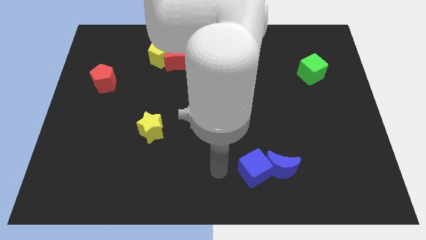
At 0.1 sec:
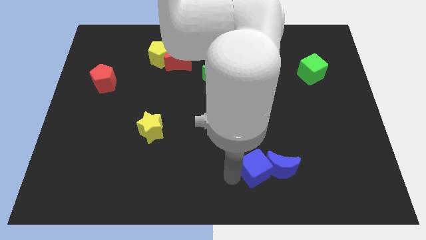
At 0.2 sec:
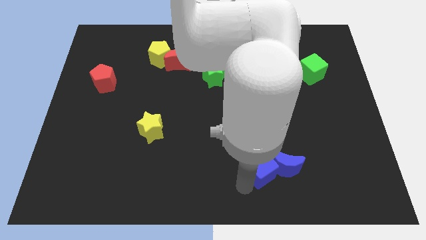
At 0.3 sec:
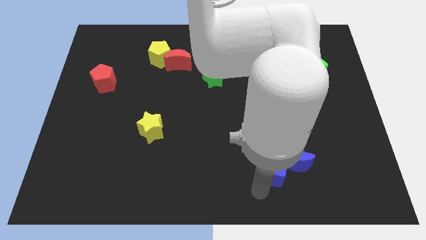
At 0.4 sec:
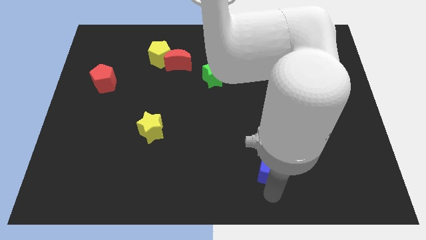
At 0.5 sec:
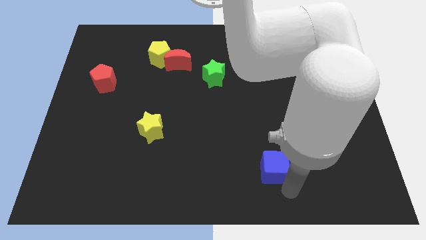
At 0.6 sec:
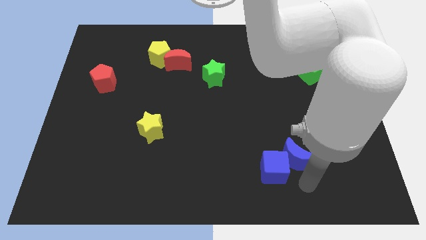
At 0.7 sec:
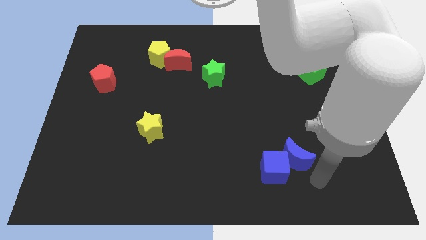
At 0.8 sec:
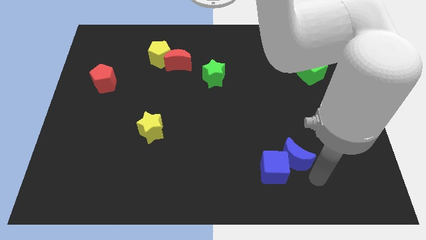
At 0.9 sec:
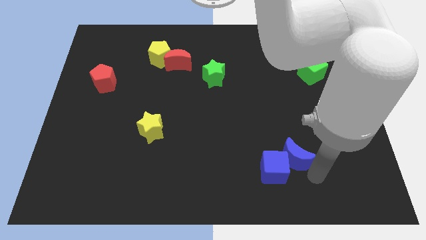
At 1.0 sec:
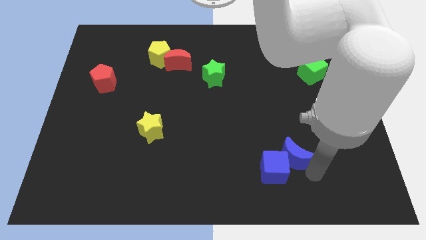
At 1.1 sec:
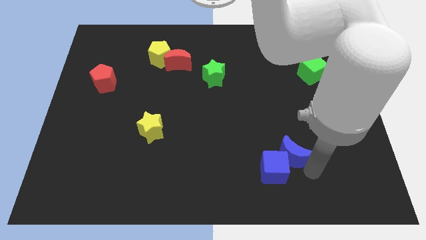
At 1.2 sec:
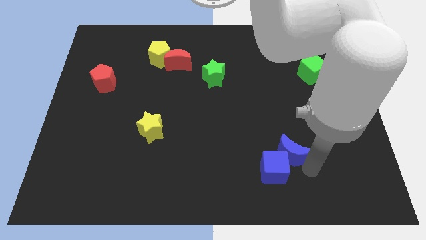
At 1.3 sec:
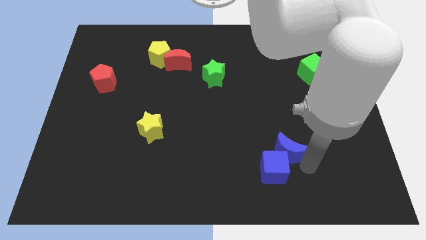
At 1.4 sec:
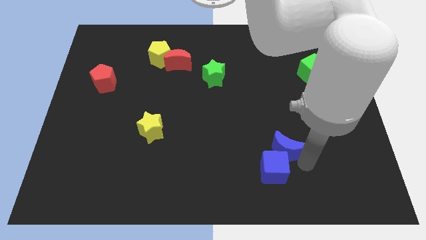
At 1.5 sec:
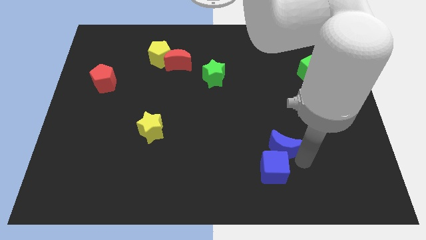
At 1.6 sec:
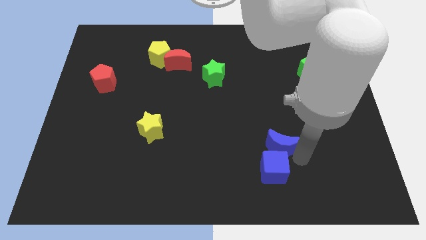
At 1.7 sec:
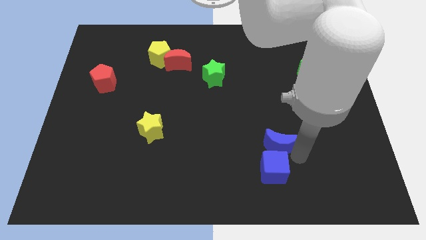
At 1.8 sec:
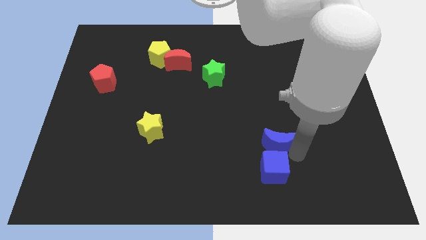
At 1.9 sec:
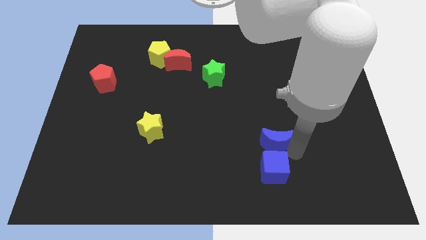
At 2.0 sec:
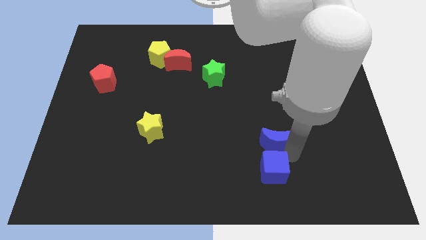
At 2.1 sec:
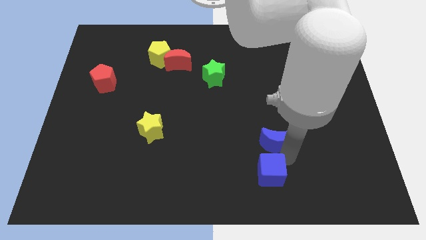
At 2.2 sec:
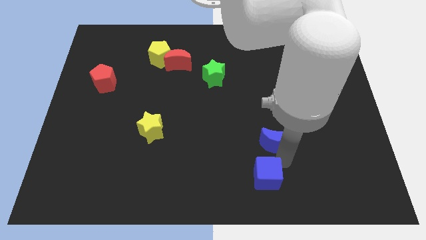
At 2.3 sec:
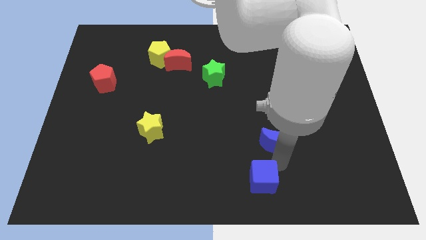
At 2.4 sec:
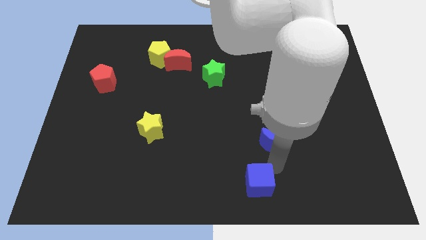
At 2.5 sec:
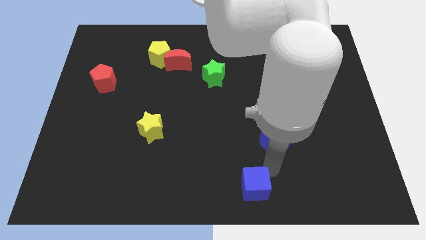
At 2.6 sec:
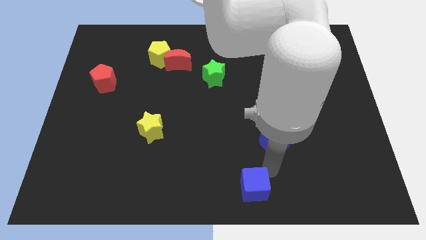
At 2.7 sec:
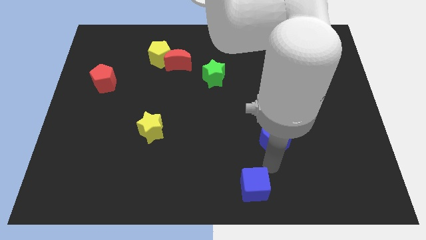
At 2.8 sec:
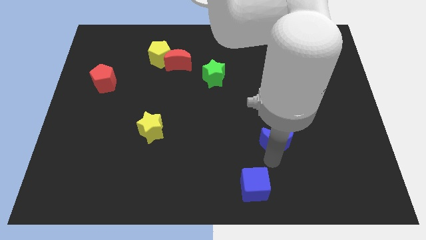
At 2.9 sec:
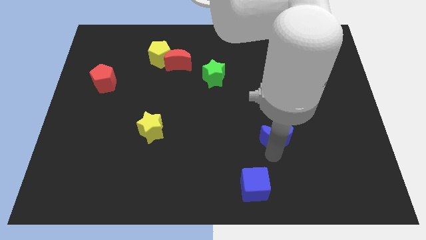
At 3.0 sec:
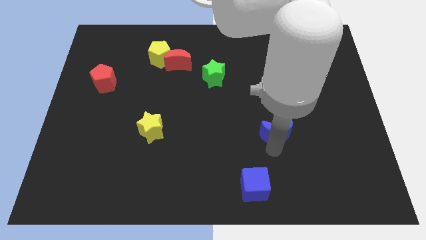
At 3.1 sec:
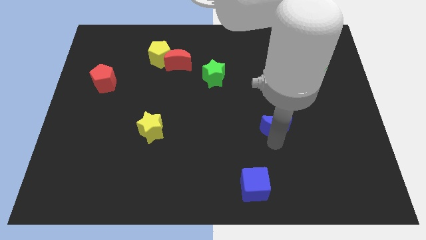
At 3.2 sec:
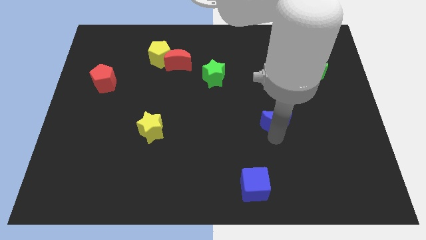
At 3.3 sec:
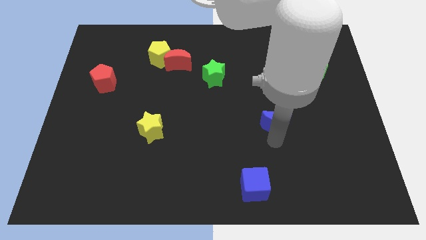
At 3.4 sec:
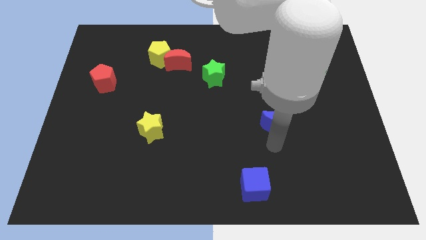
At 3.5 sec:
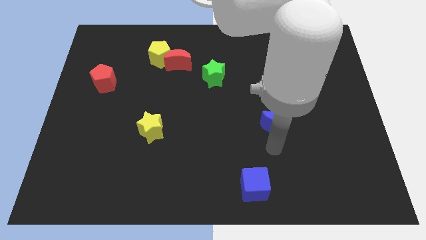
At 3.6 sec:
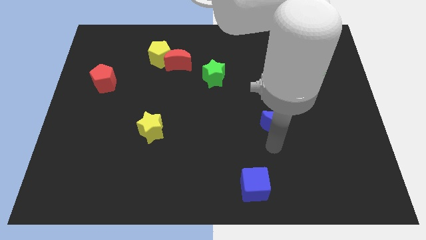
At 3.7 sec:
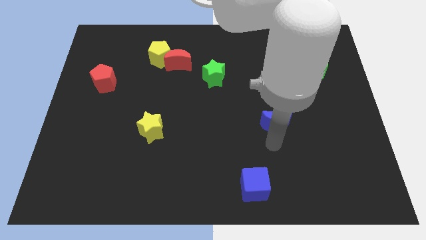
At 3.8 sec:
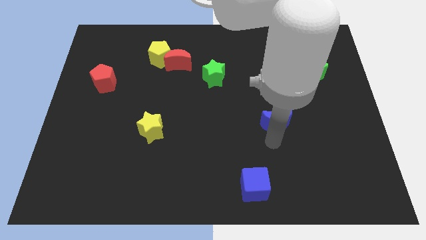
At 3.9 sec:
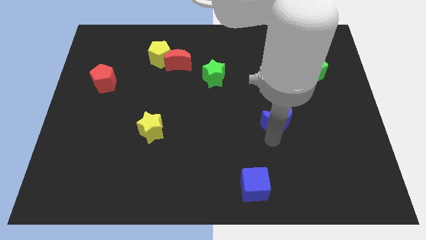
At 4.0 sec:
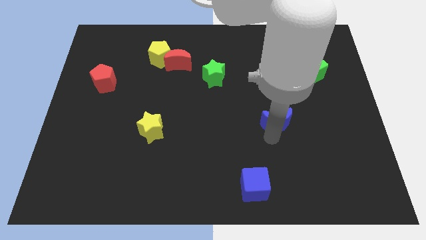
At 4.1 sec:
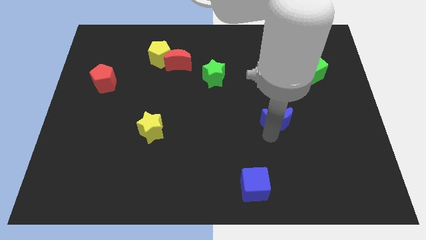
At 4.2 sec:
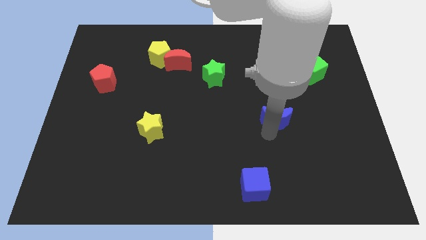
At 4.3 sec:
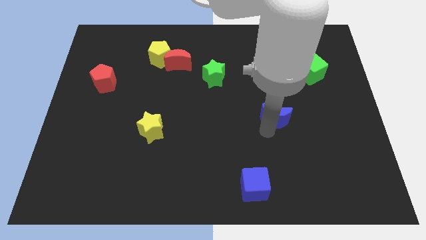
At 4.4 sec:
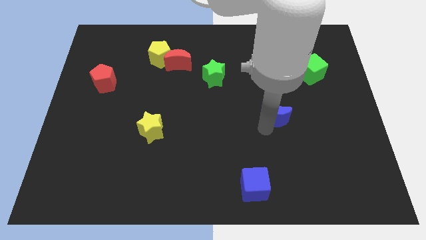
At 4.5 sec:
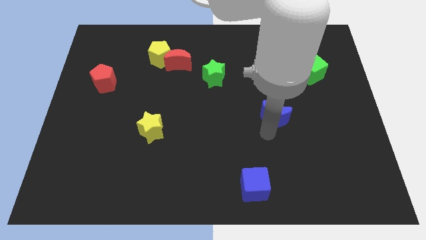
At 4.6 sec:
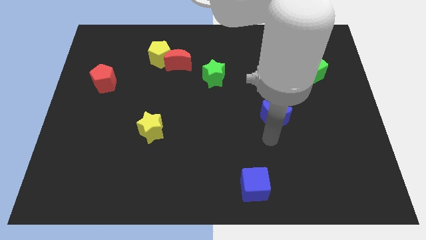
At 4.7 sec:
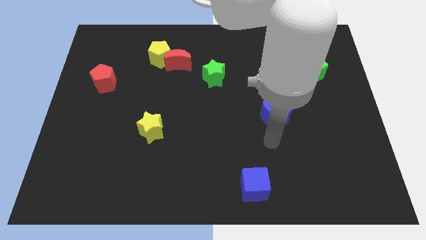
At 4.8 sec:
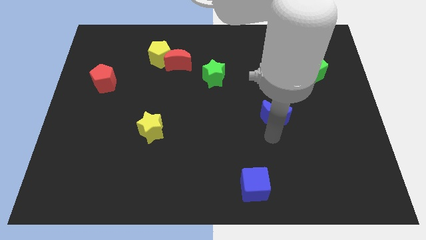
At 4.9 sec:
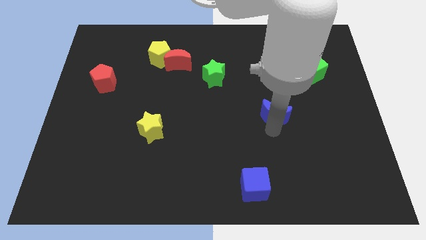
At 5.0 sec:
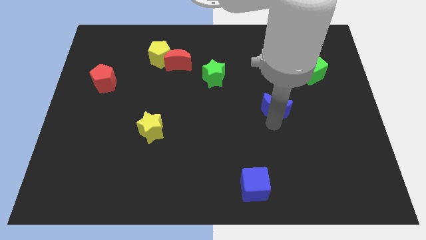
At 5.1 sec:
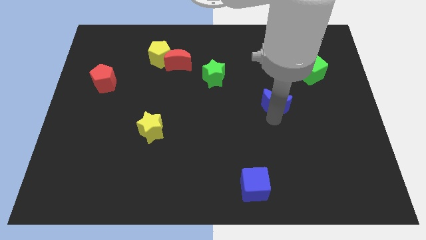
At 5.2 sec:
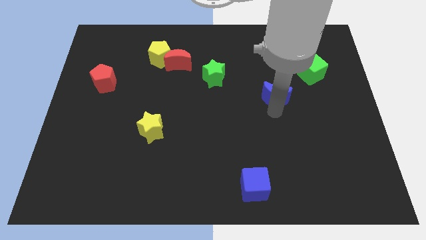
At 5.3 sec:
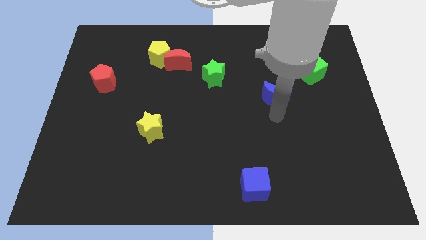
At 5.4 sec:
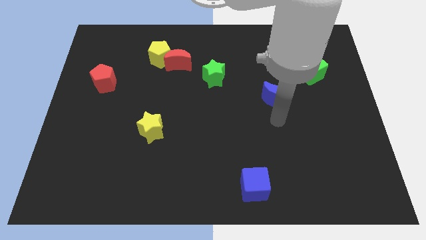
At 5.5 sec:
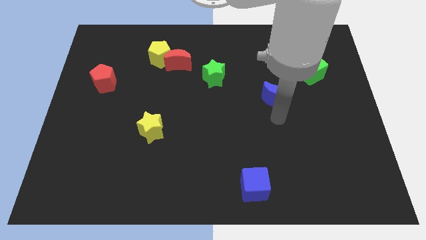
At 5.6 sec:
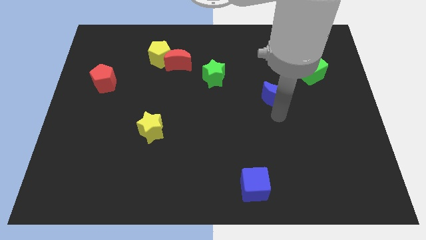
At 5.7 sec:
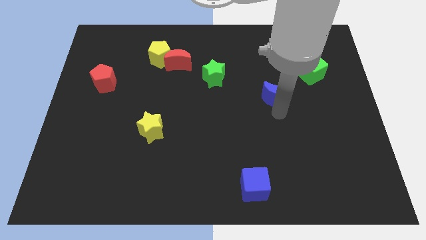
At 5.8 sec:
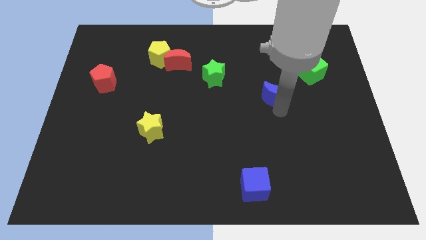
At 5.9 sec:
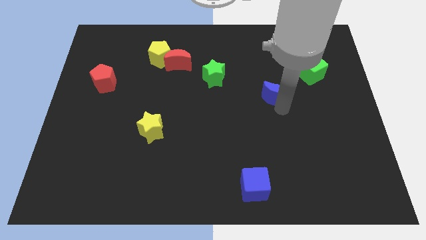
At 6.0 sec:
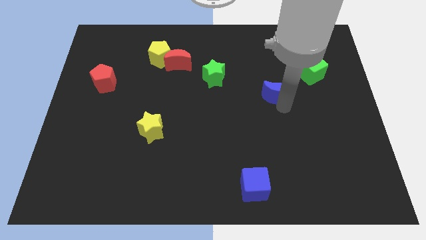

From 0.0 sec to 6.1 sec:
slide the blue moon upwards

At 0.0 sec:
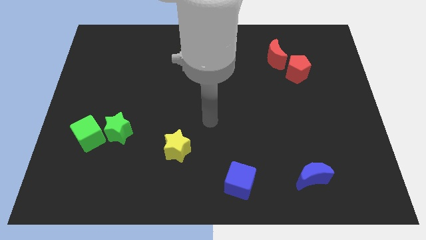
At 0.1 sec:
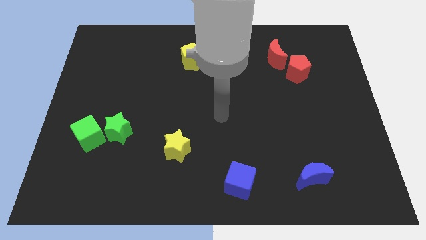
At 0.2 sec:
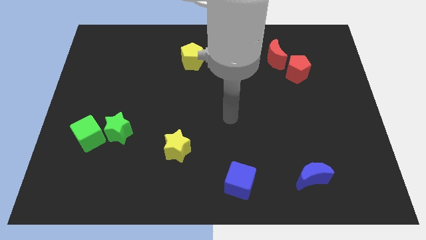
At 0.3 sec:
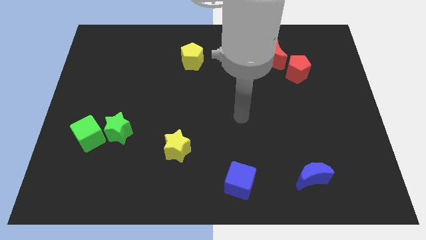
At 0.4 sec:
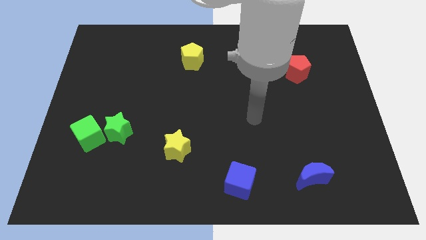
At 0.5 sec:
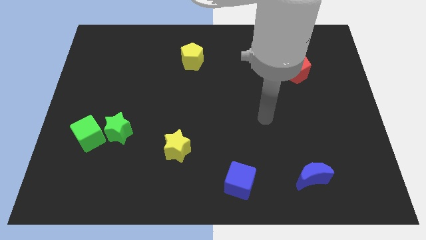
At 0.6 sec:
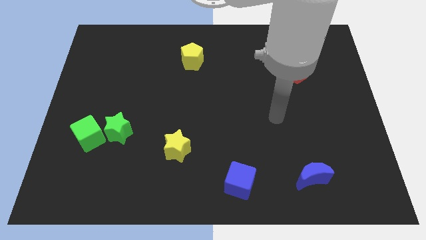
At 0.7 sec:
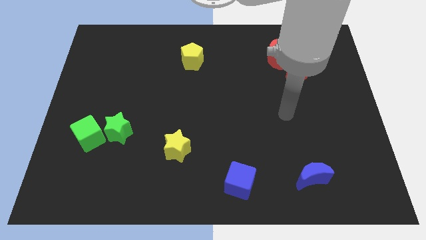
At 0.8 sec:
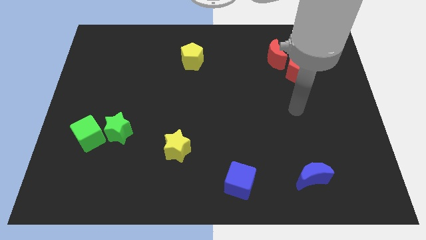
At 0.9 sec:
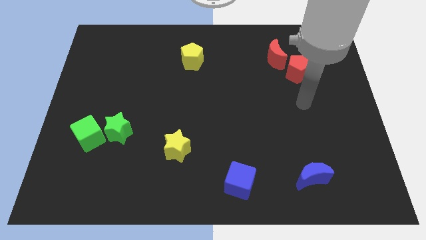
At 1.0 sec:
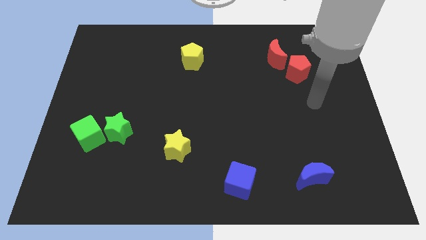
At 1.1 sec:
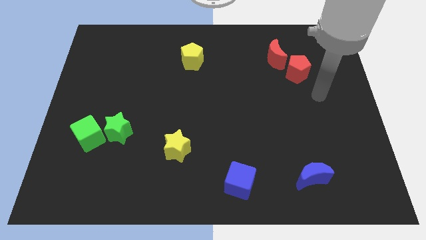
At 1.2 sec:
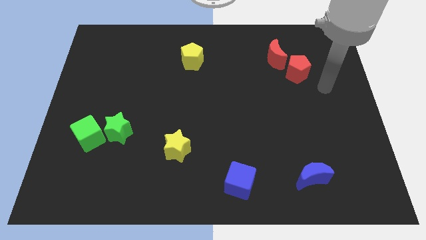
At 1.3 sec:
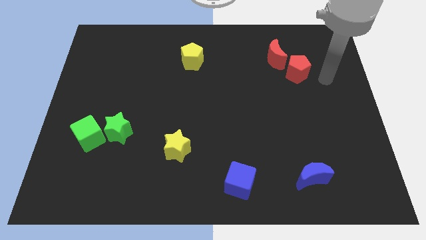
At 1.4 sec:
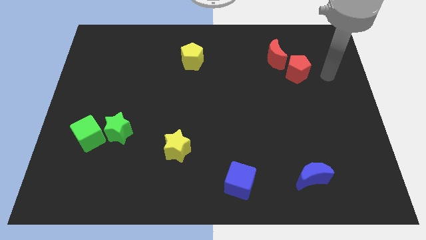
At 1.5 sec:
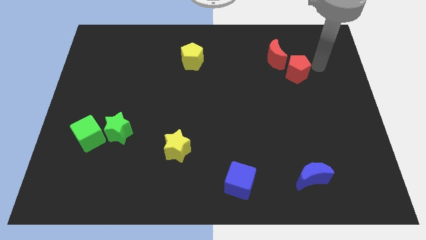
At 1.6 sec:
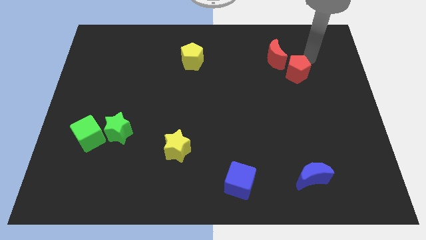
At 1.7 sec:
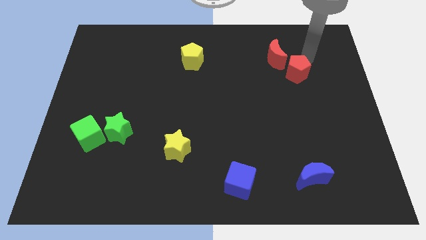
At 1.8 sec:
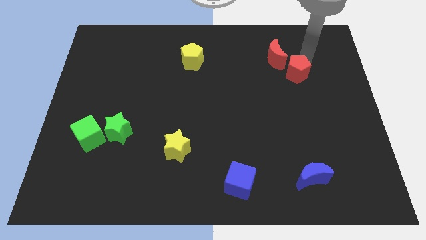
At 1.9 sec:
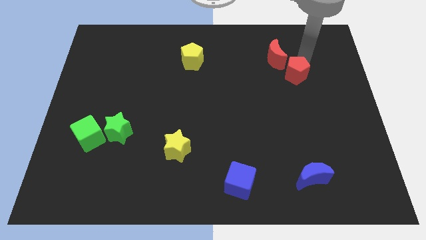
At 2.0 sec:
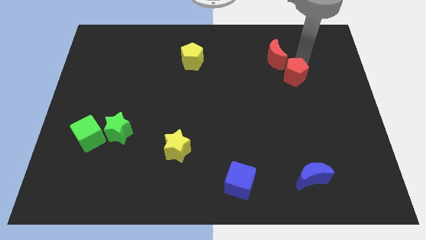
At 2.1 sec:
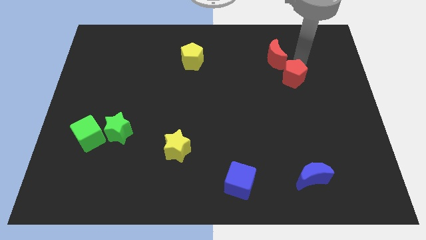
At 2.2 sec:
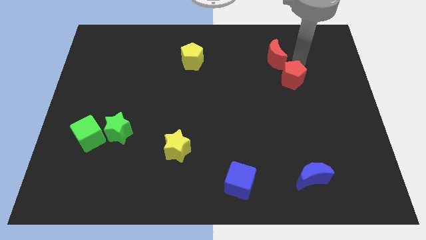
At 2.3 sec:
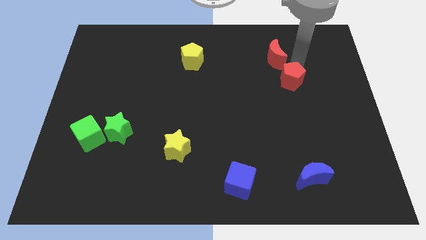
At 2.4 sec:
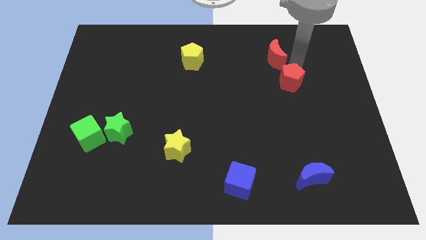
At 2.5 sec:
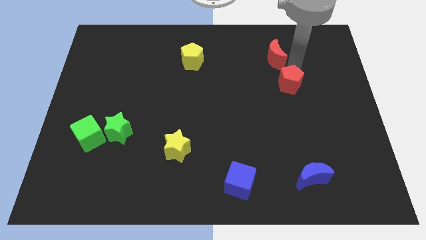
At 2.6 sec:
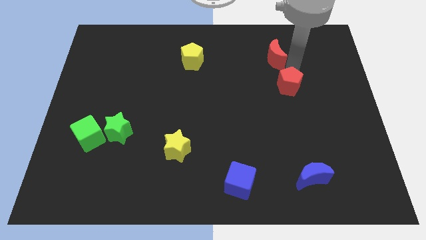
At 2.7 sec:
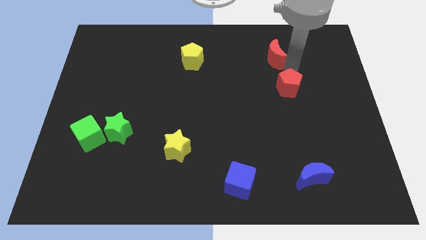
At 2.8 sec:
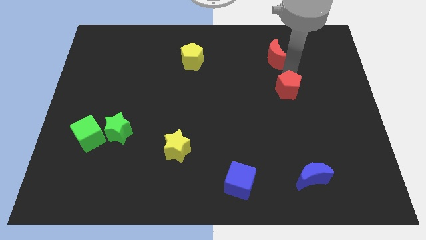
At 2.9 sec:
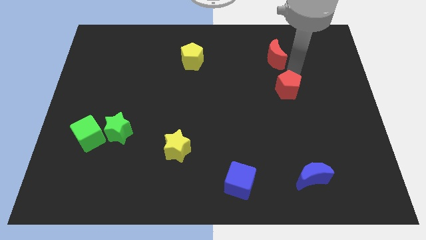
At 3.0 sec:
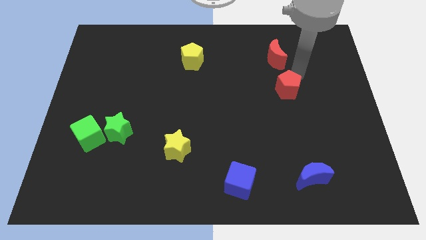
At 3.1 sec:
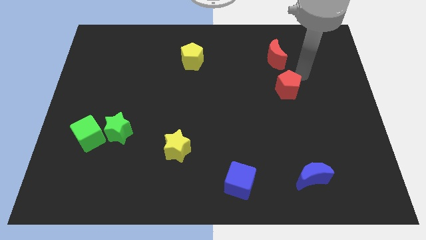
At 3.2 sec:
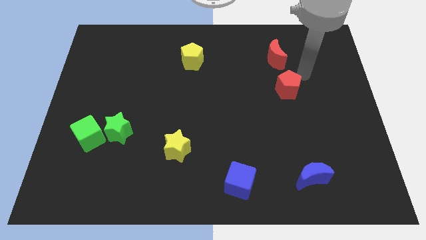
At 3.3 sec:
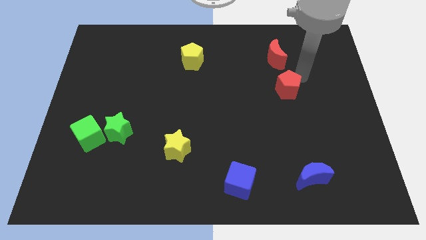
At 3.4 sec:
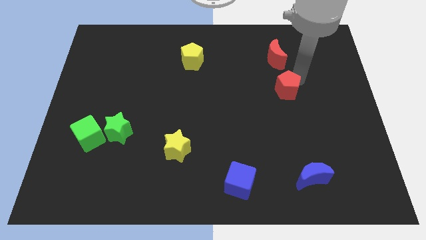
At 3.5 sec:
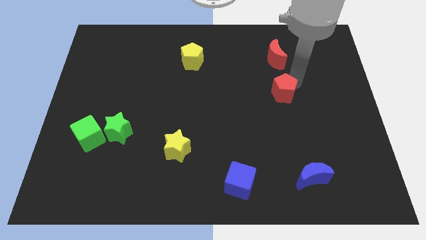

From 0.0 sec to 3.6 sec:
slightly slide the red pentagon diagonally down and left
